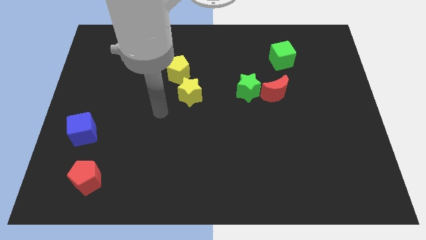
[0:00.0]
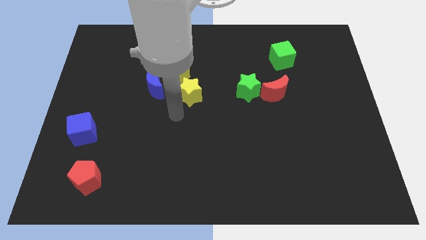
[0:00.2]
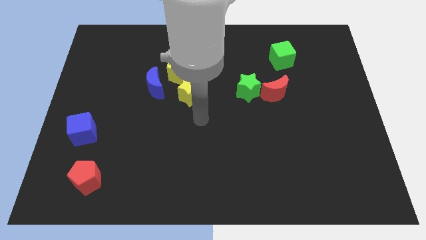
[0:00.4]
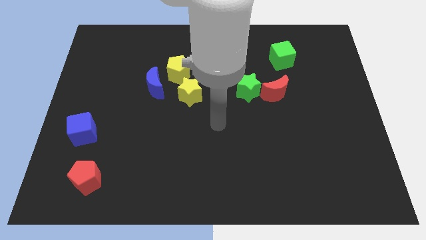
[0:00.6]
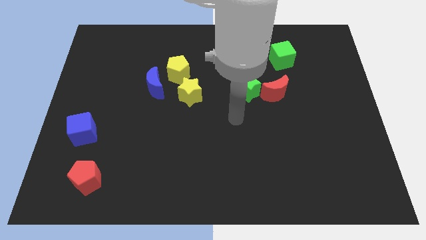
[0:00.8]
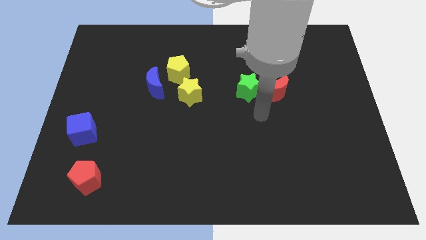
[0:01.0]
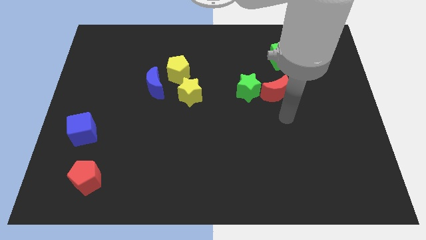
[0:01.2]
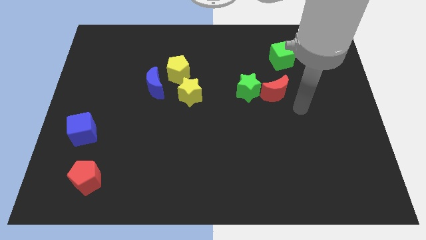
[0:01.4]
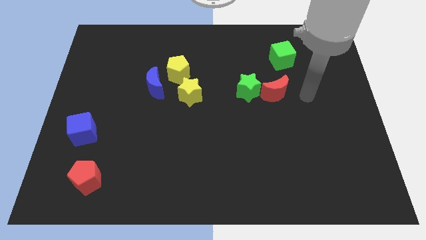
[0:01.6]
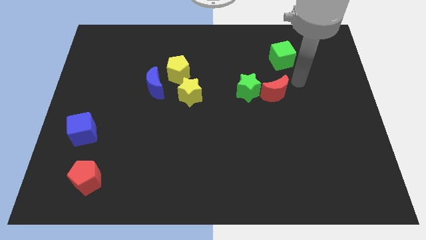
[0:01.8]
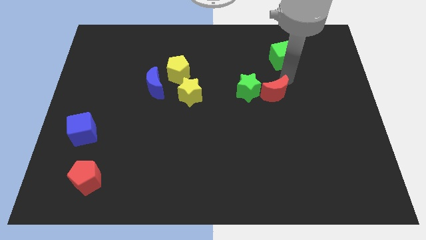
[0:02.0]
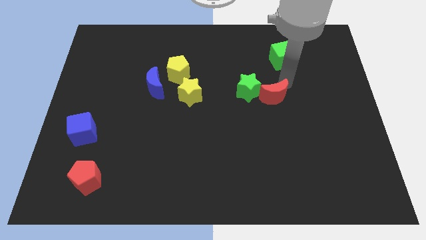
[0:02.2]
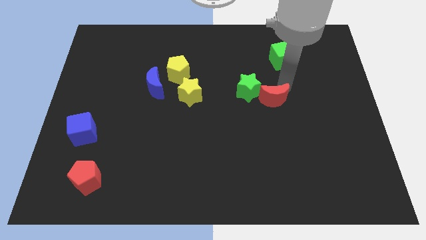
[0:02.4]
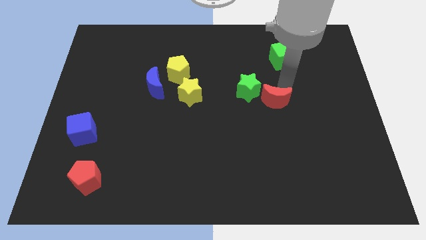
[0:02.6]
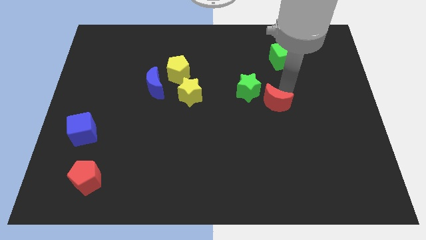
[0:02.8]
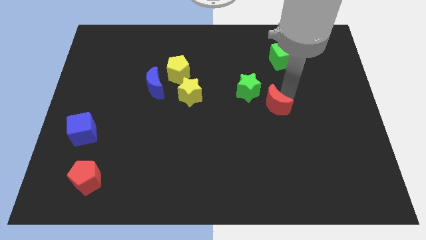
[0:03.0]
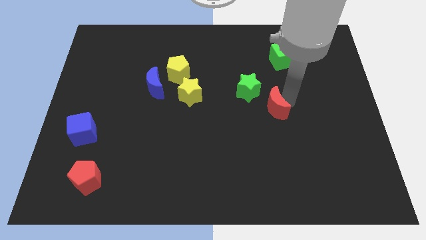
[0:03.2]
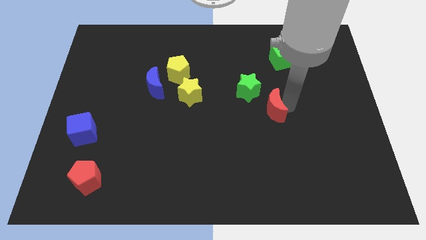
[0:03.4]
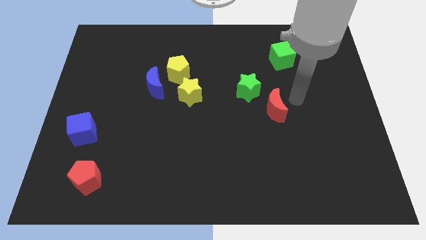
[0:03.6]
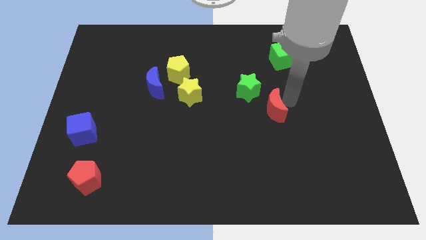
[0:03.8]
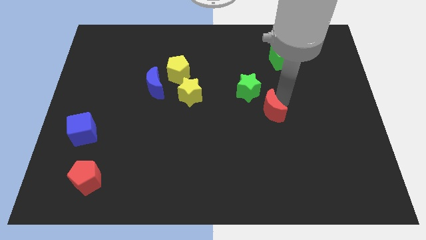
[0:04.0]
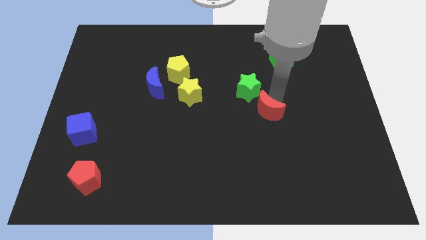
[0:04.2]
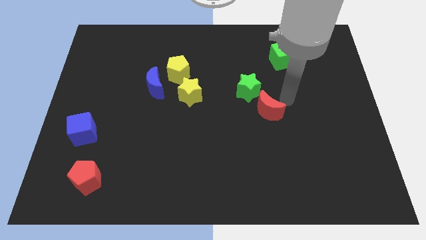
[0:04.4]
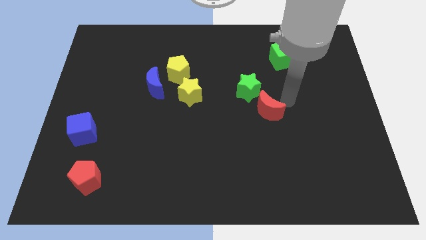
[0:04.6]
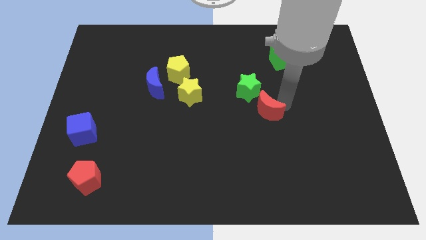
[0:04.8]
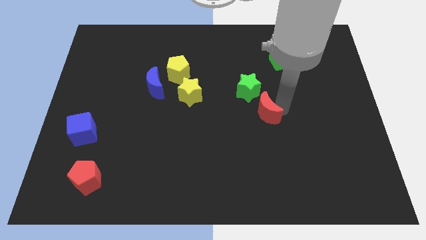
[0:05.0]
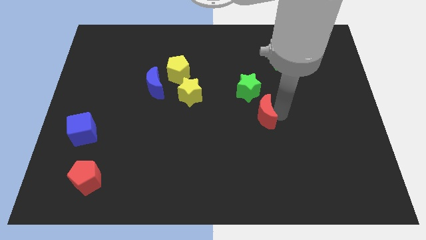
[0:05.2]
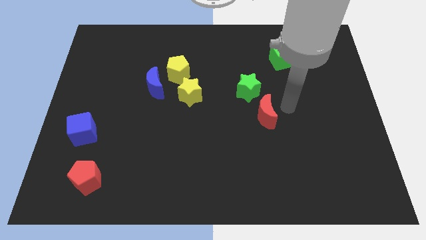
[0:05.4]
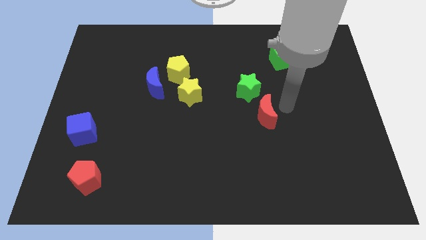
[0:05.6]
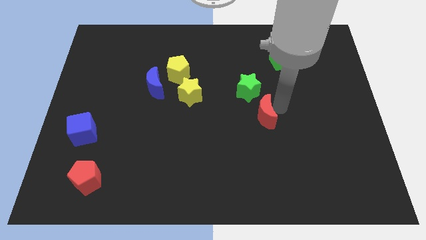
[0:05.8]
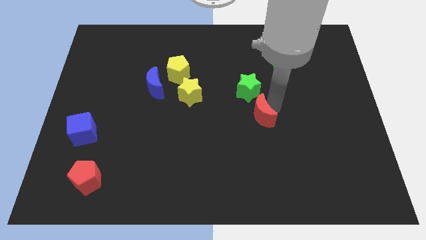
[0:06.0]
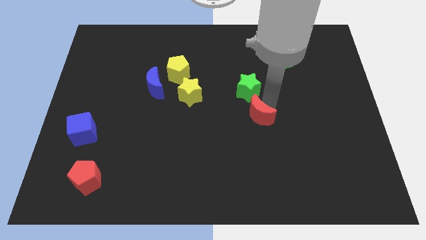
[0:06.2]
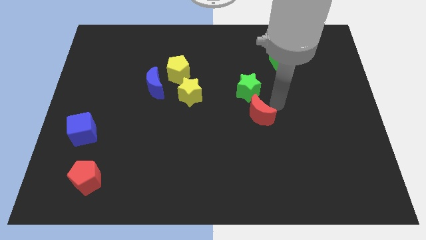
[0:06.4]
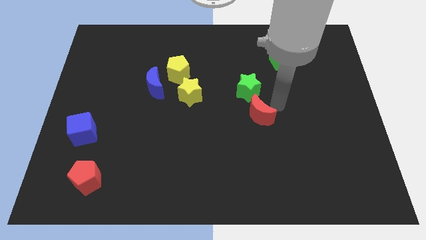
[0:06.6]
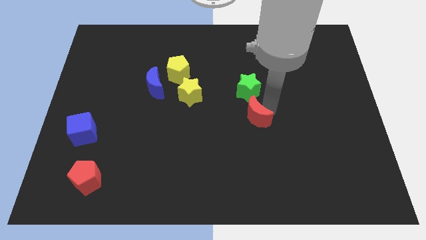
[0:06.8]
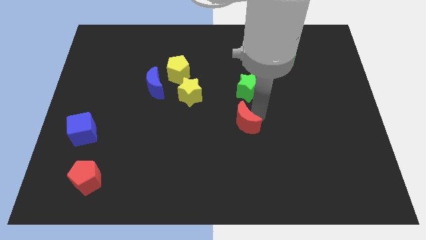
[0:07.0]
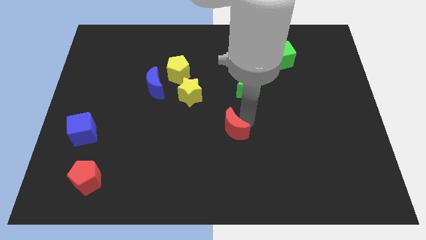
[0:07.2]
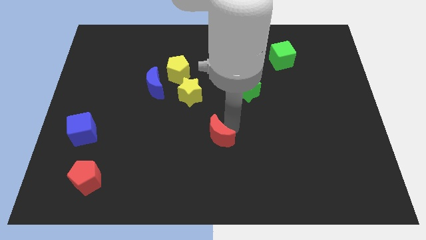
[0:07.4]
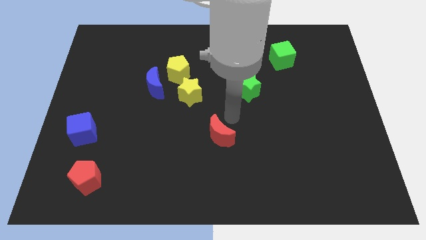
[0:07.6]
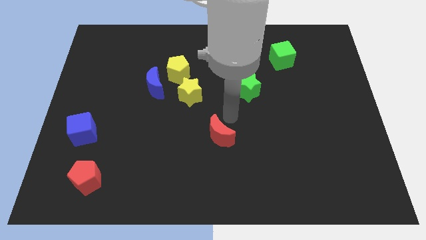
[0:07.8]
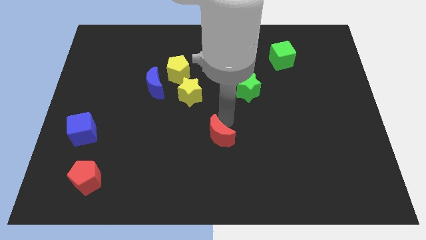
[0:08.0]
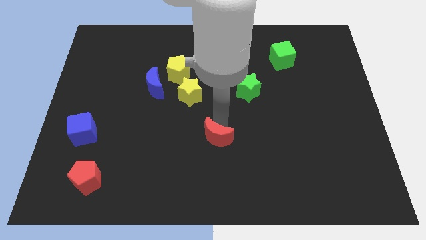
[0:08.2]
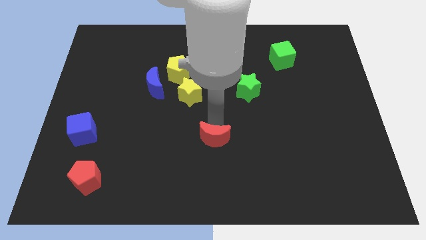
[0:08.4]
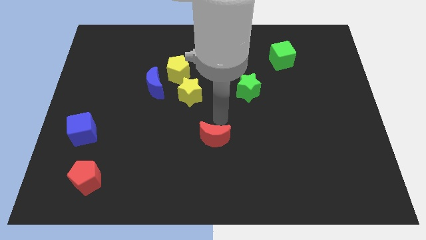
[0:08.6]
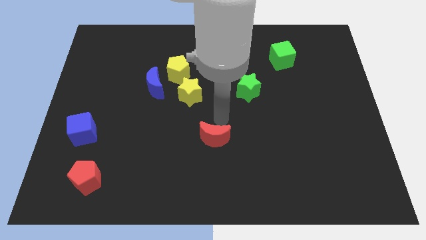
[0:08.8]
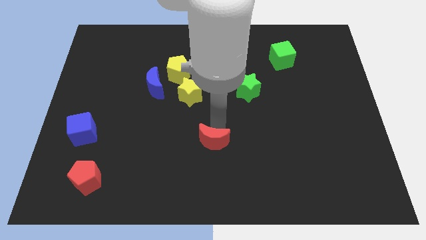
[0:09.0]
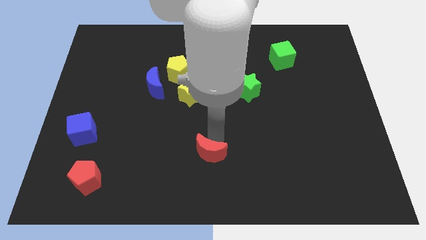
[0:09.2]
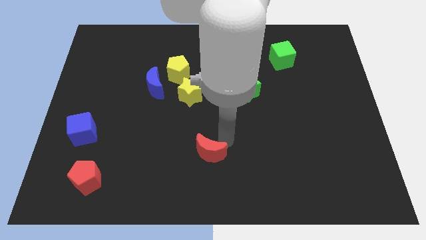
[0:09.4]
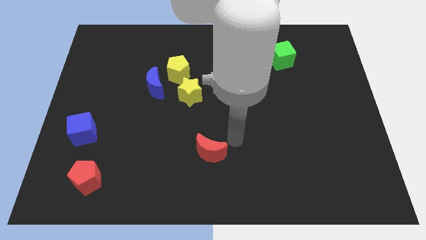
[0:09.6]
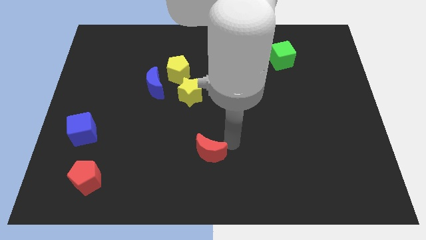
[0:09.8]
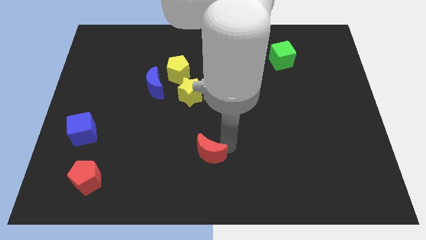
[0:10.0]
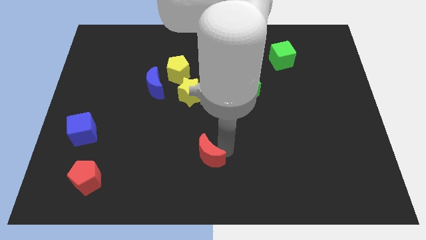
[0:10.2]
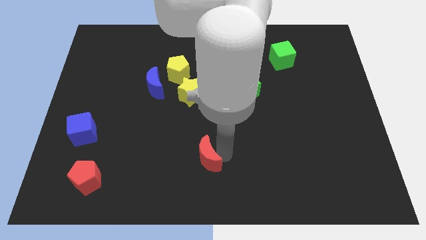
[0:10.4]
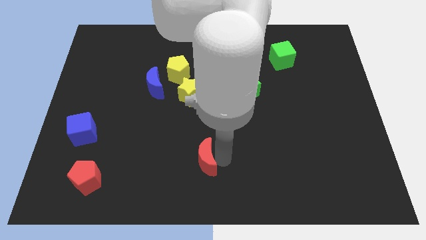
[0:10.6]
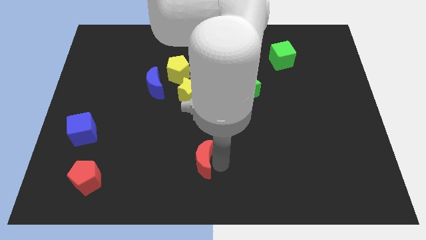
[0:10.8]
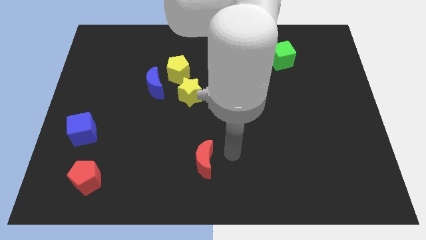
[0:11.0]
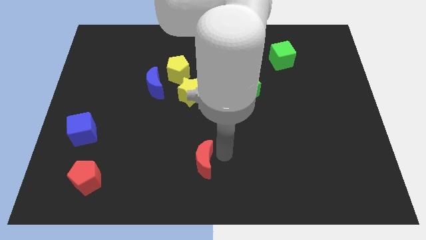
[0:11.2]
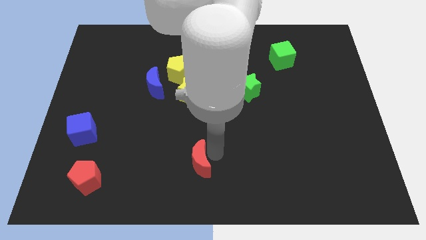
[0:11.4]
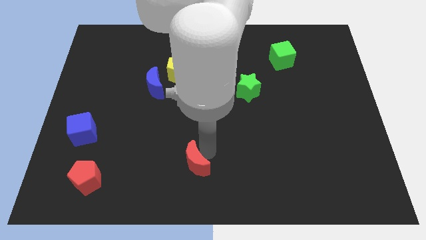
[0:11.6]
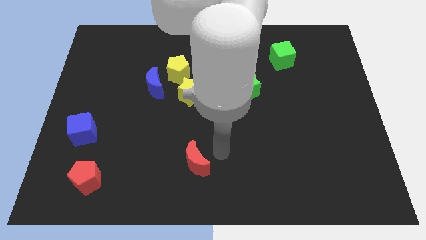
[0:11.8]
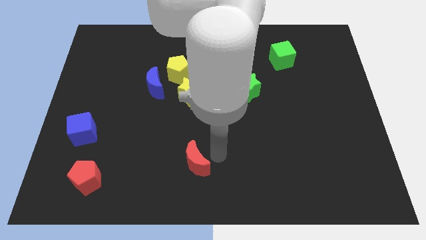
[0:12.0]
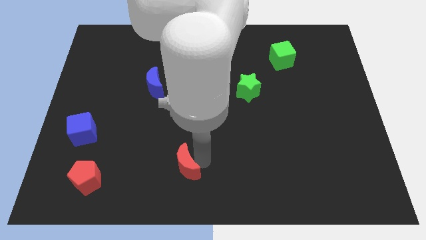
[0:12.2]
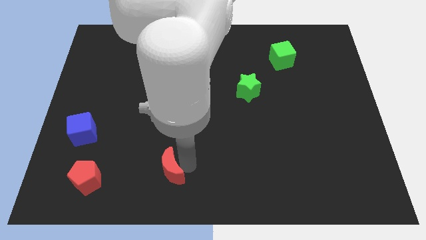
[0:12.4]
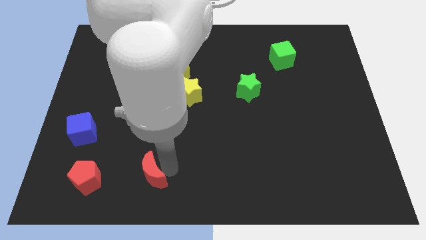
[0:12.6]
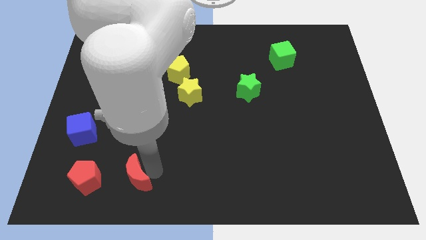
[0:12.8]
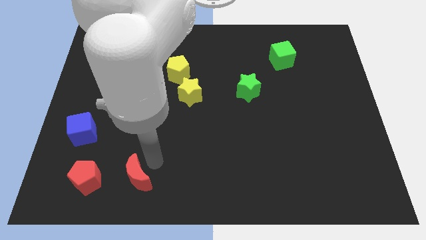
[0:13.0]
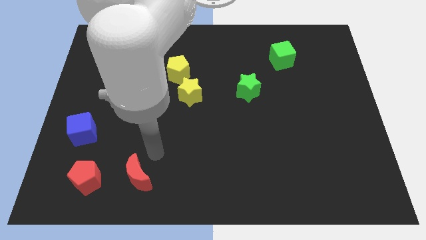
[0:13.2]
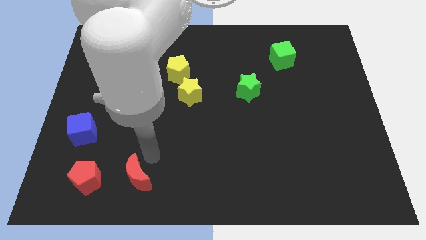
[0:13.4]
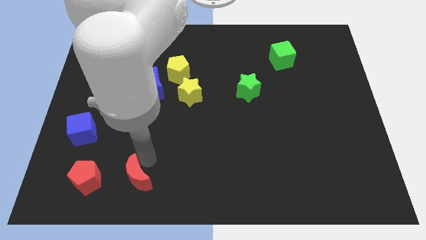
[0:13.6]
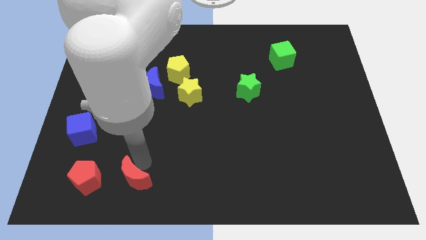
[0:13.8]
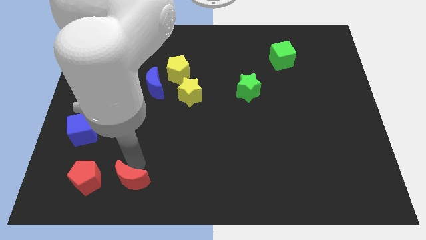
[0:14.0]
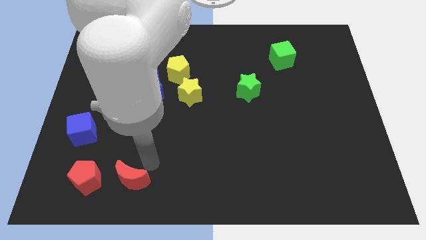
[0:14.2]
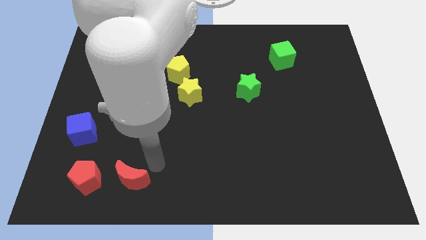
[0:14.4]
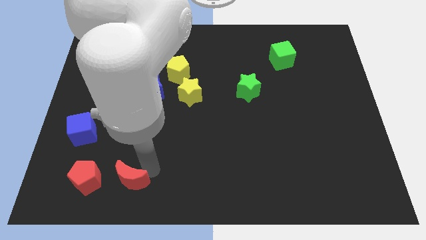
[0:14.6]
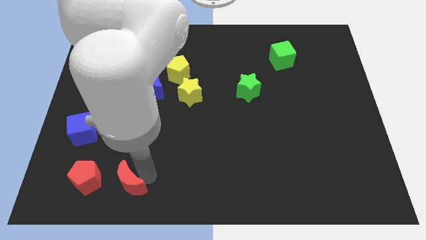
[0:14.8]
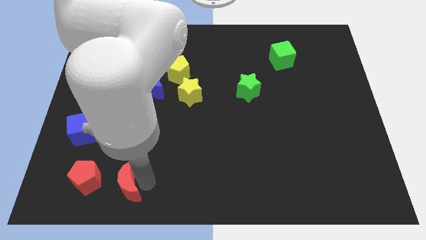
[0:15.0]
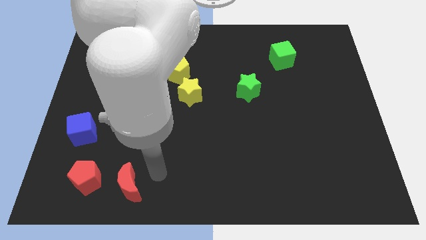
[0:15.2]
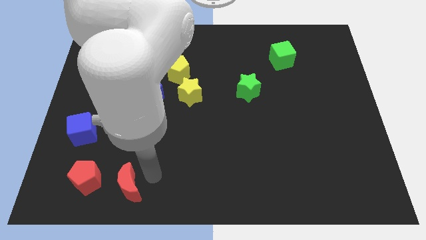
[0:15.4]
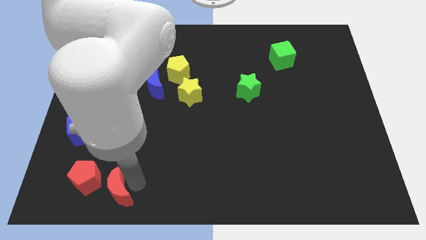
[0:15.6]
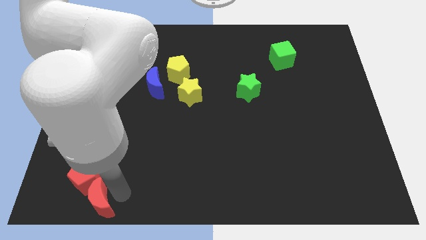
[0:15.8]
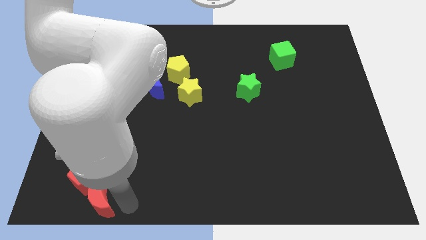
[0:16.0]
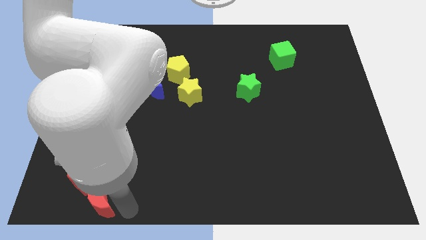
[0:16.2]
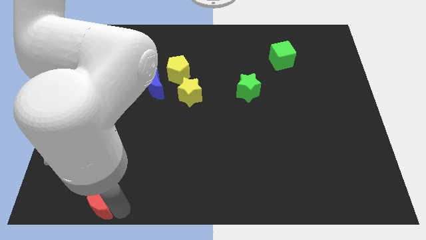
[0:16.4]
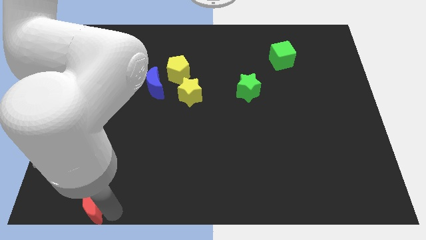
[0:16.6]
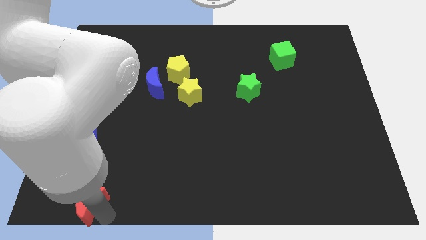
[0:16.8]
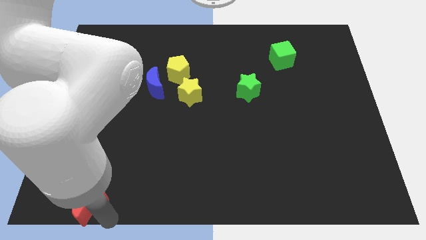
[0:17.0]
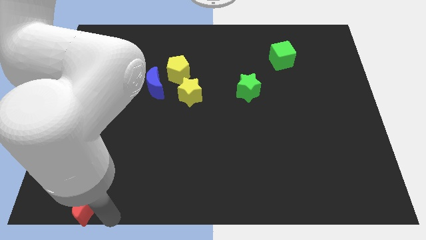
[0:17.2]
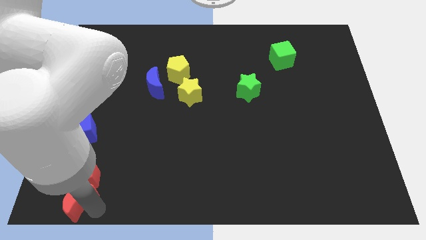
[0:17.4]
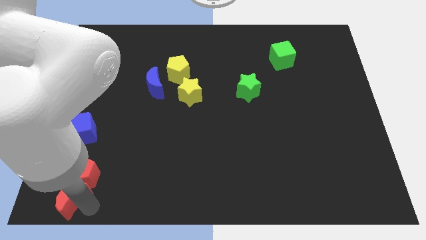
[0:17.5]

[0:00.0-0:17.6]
push the red moon below the blue cube
